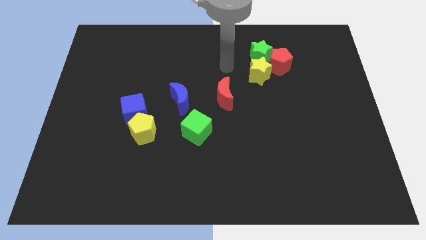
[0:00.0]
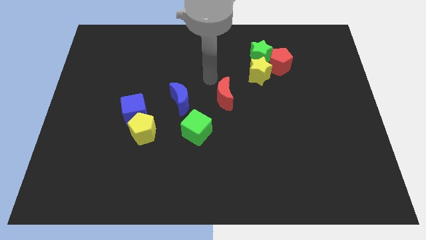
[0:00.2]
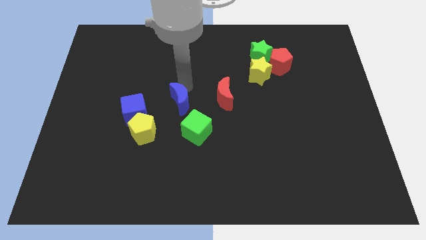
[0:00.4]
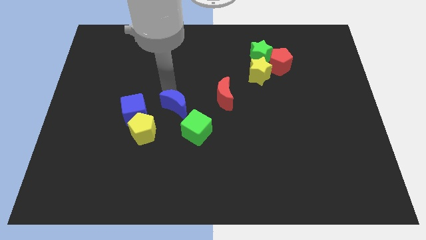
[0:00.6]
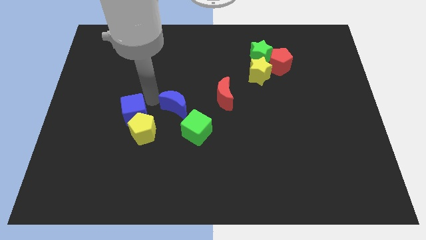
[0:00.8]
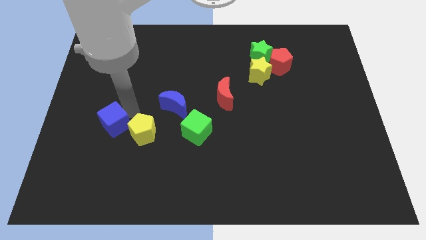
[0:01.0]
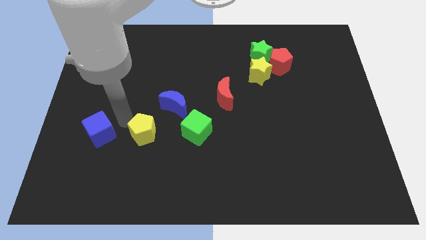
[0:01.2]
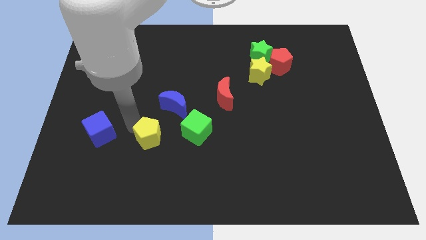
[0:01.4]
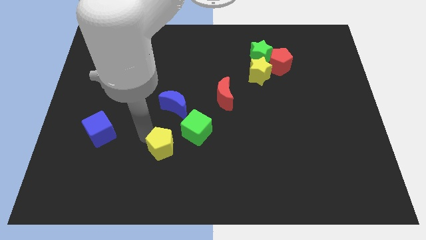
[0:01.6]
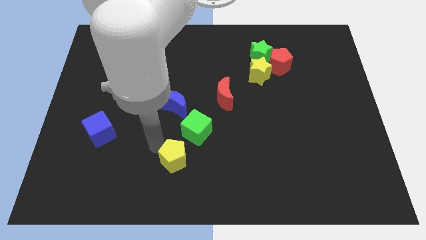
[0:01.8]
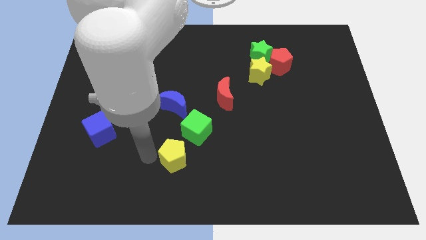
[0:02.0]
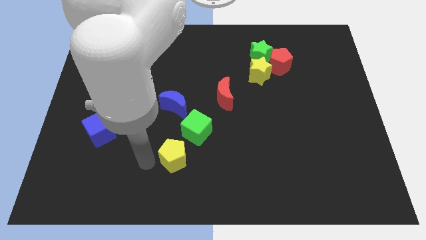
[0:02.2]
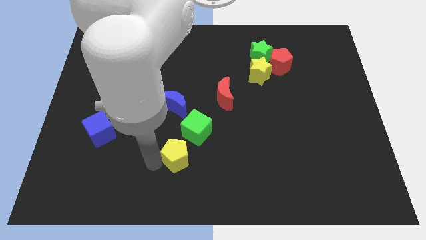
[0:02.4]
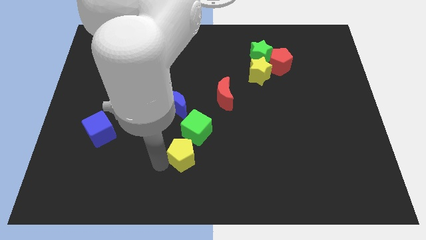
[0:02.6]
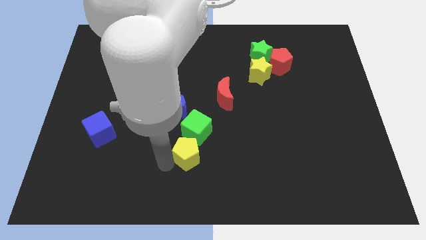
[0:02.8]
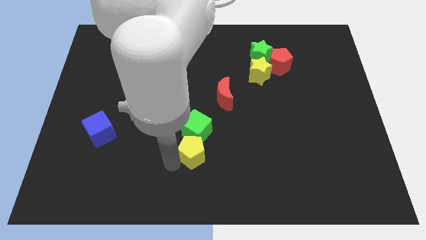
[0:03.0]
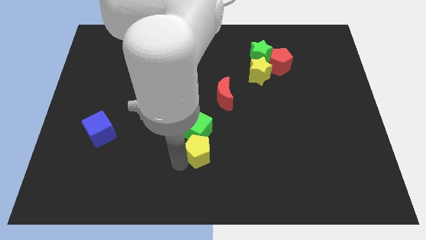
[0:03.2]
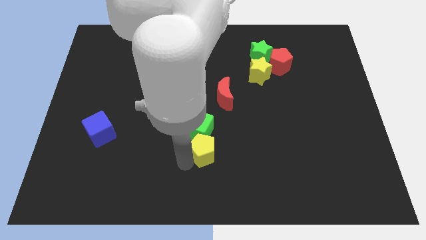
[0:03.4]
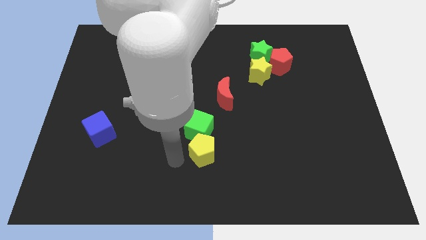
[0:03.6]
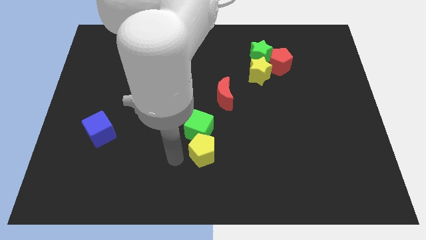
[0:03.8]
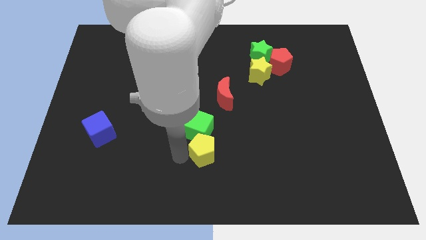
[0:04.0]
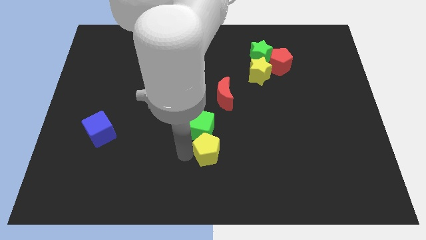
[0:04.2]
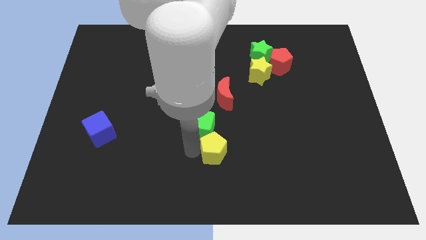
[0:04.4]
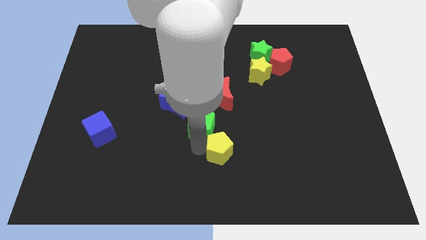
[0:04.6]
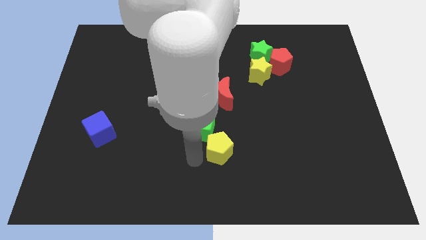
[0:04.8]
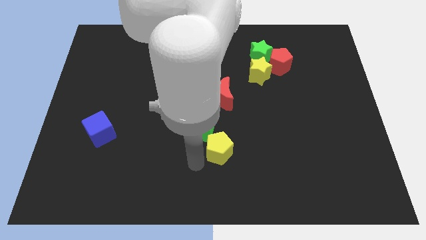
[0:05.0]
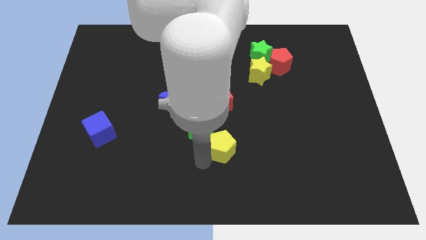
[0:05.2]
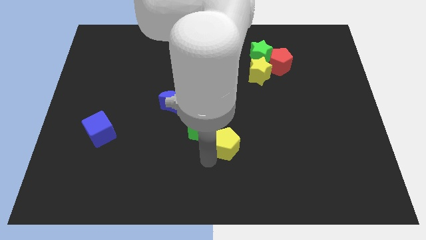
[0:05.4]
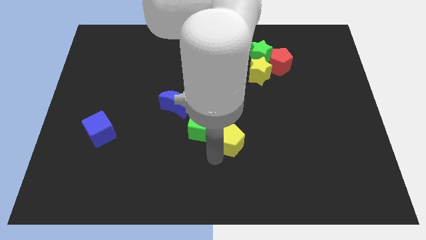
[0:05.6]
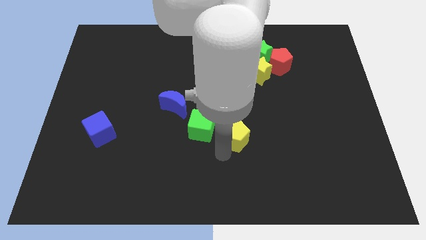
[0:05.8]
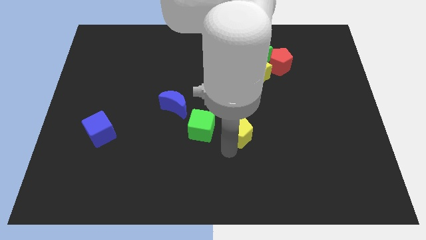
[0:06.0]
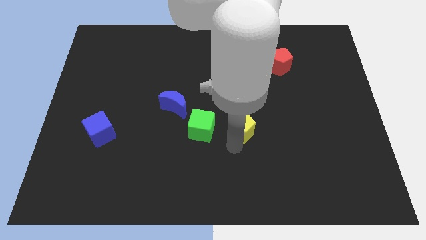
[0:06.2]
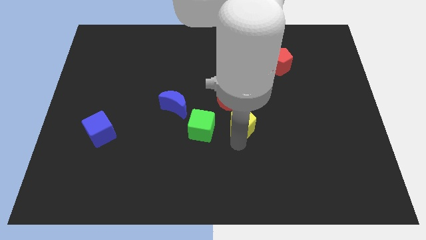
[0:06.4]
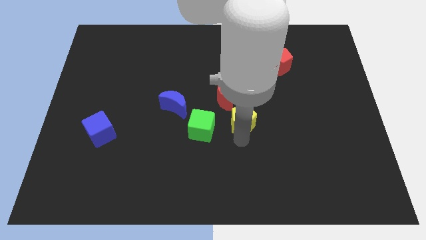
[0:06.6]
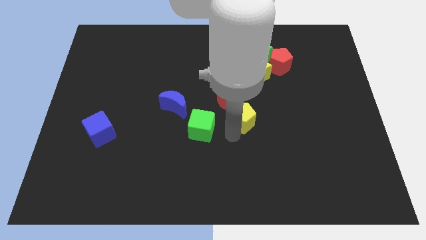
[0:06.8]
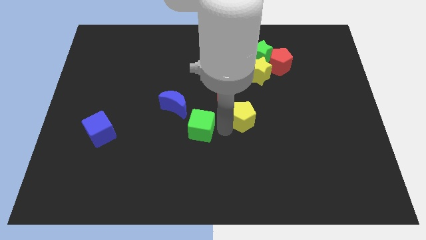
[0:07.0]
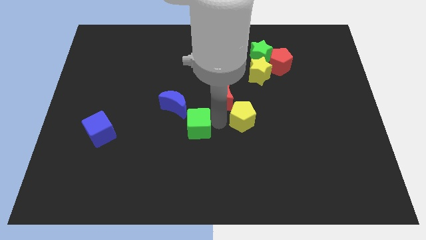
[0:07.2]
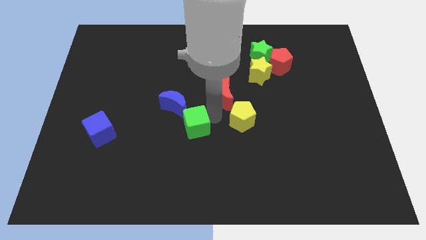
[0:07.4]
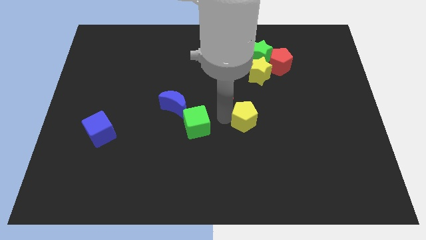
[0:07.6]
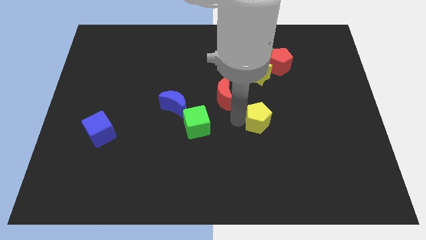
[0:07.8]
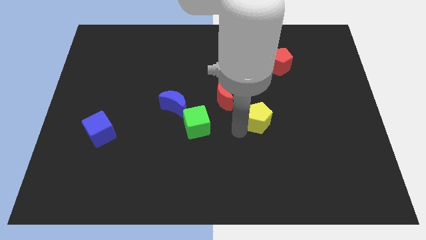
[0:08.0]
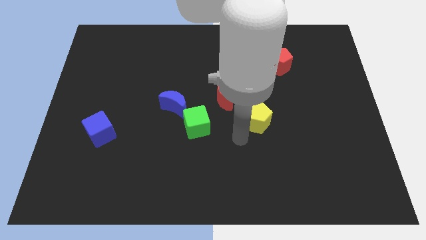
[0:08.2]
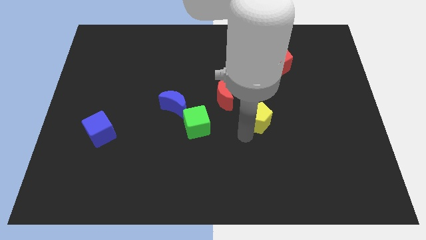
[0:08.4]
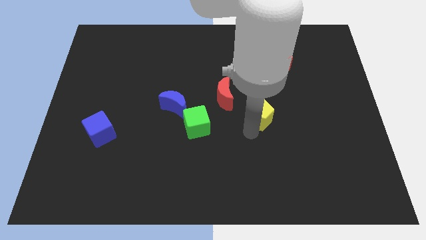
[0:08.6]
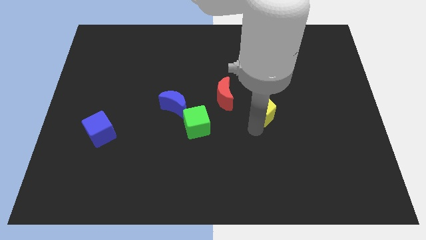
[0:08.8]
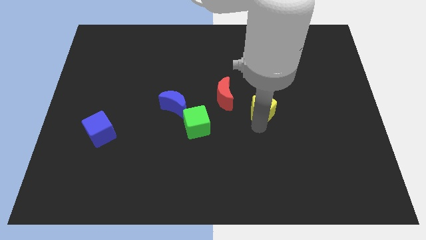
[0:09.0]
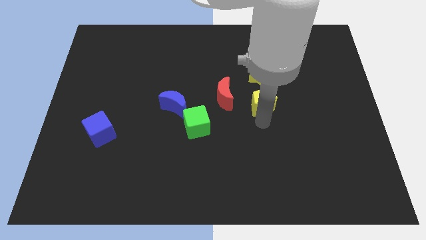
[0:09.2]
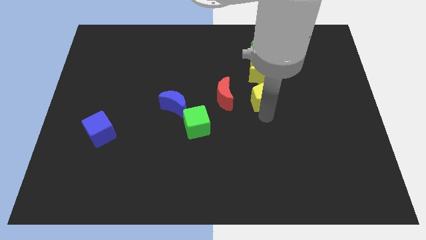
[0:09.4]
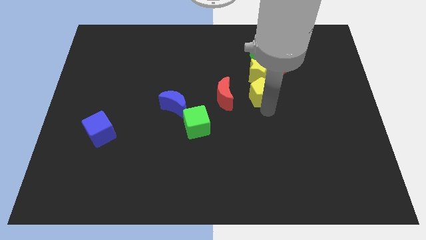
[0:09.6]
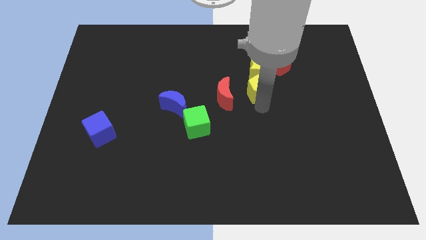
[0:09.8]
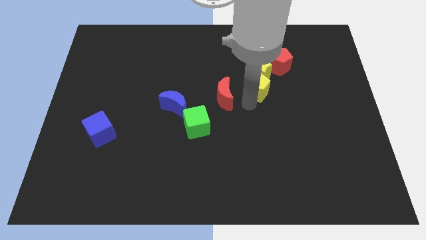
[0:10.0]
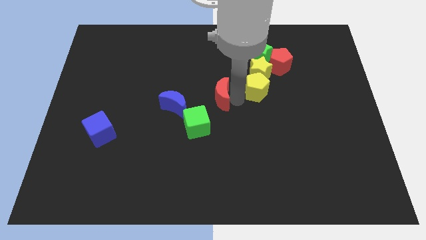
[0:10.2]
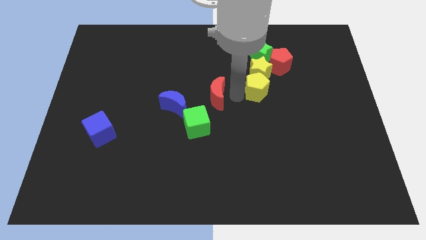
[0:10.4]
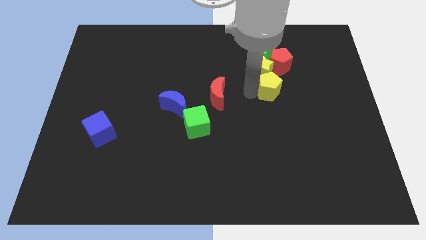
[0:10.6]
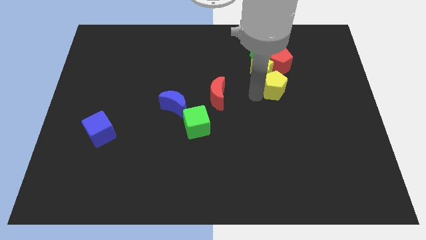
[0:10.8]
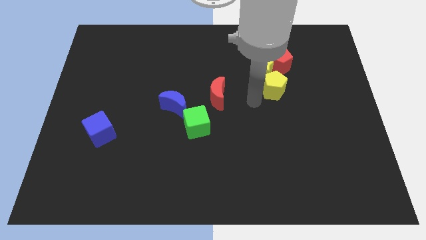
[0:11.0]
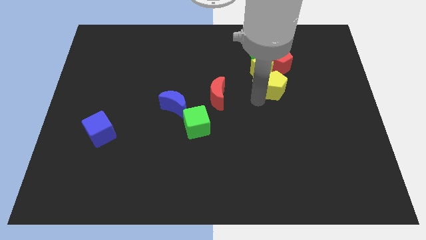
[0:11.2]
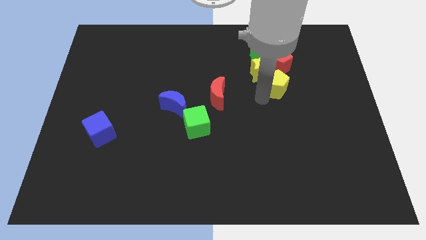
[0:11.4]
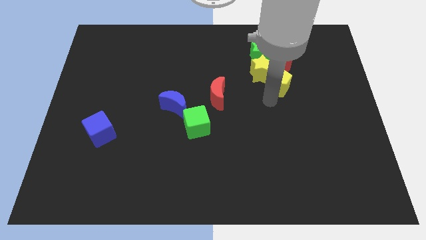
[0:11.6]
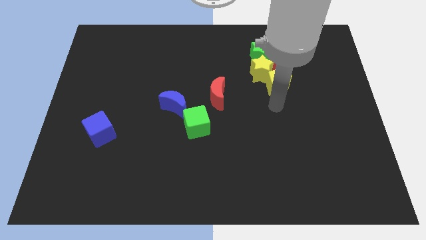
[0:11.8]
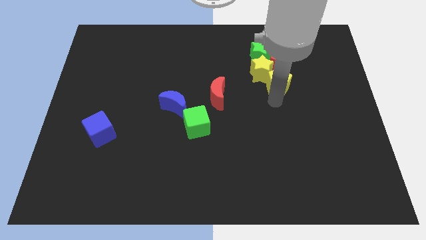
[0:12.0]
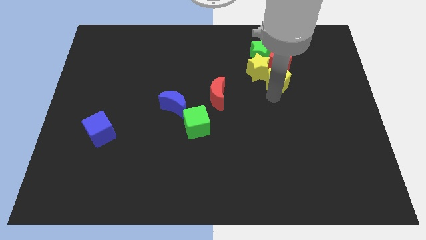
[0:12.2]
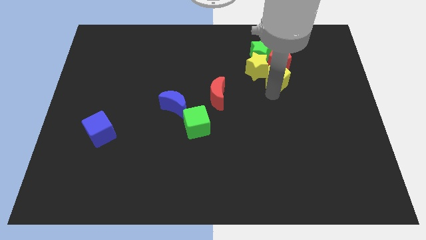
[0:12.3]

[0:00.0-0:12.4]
move the yellow pentagon next to the red pentagon
